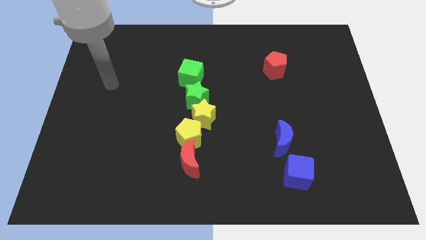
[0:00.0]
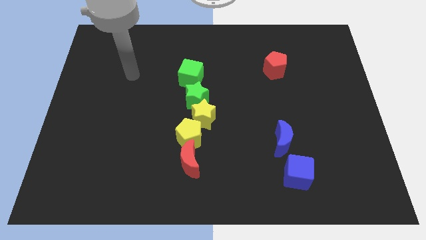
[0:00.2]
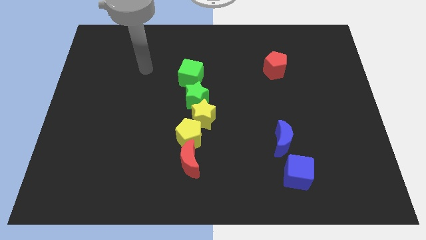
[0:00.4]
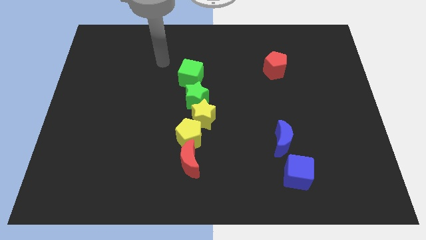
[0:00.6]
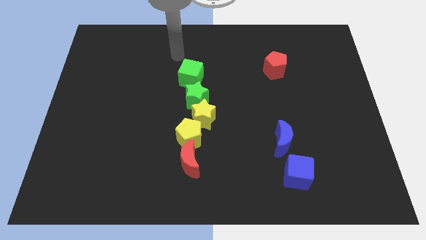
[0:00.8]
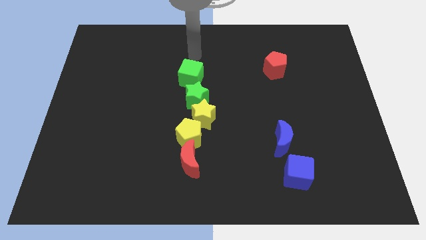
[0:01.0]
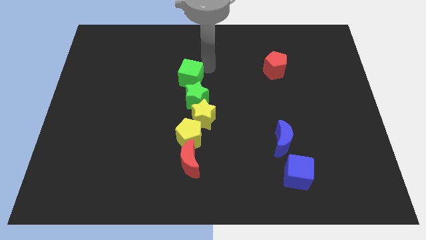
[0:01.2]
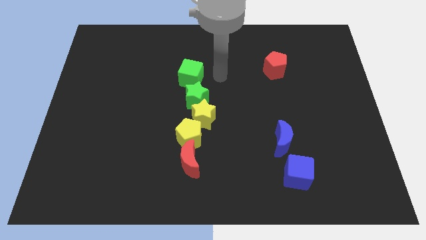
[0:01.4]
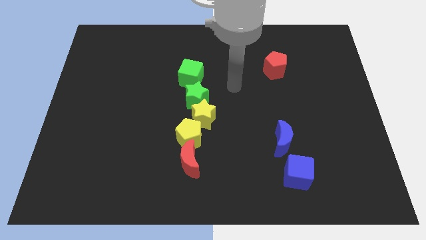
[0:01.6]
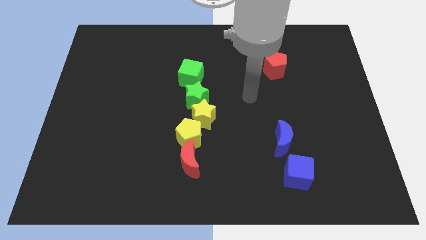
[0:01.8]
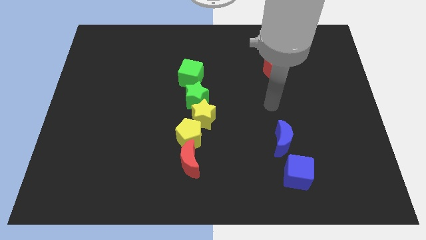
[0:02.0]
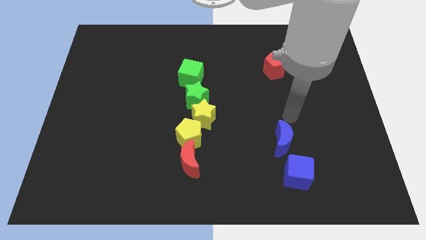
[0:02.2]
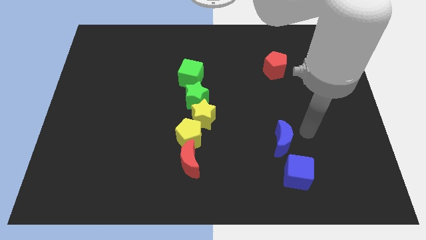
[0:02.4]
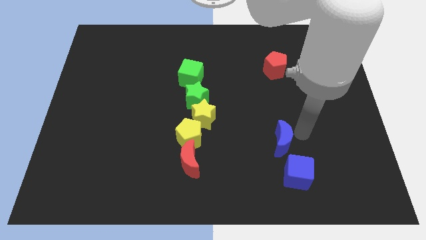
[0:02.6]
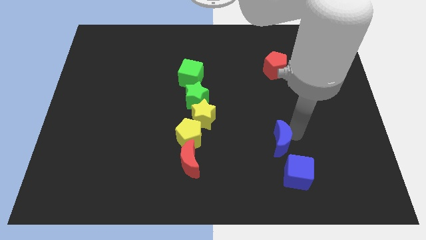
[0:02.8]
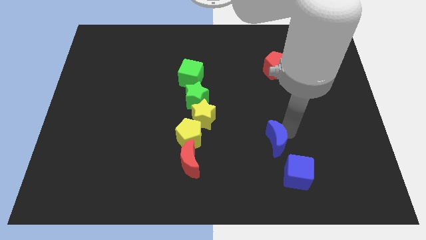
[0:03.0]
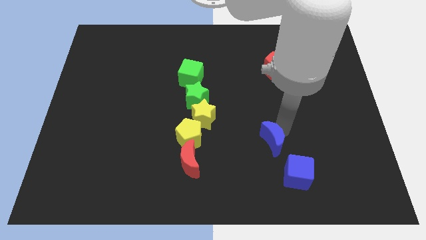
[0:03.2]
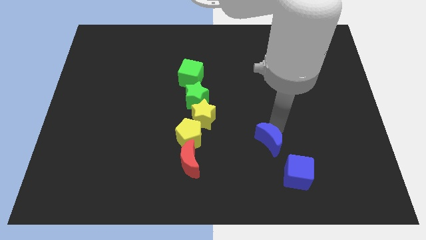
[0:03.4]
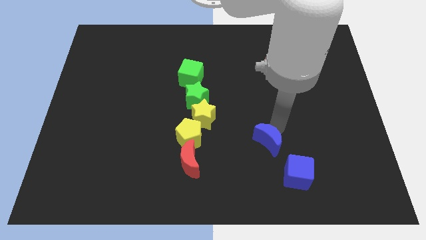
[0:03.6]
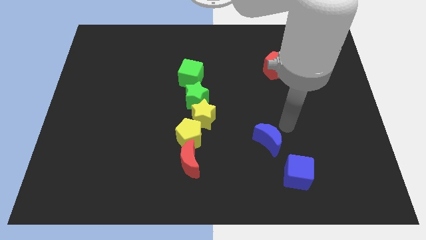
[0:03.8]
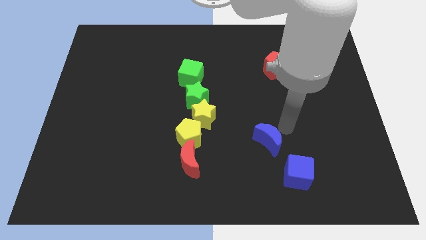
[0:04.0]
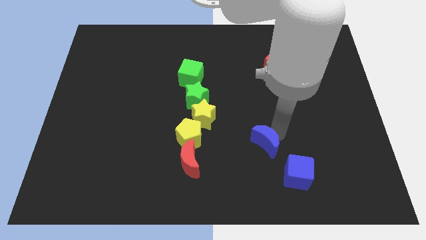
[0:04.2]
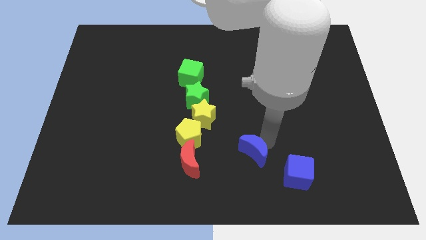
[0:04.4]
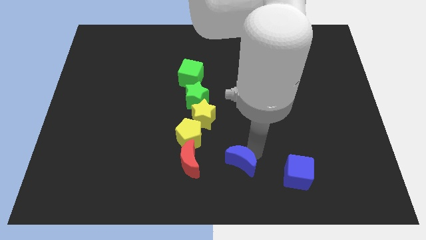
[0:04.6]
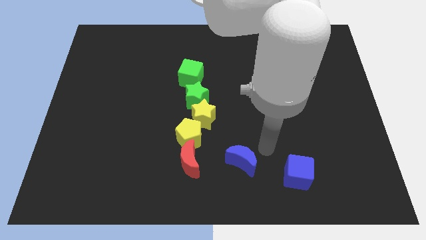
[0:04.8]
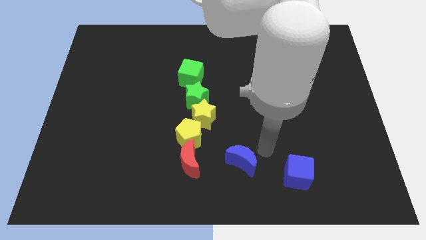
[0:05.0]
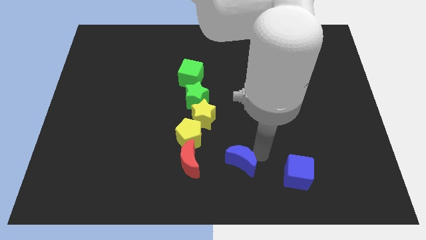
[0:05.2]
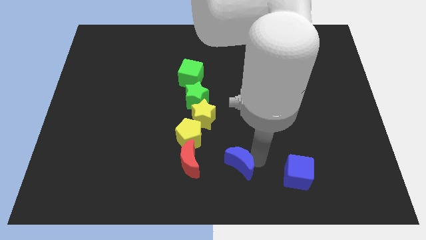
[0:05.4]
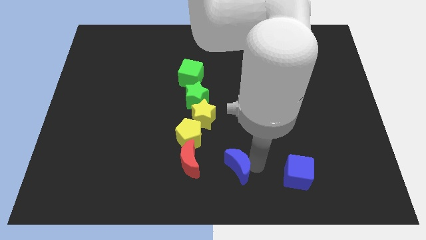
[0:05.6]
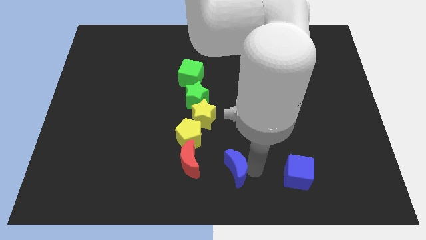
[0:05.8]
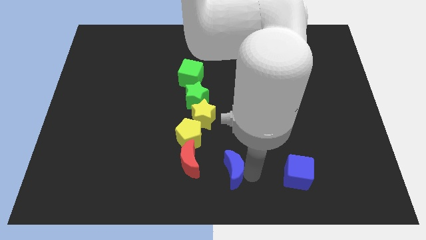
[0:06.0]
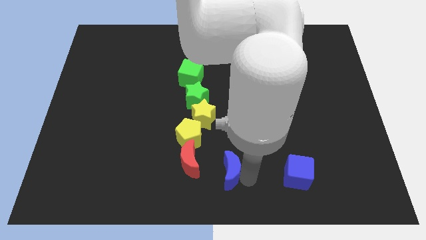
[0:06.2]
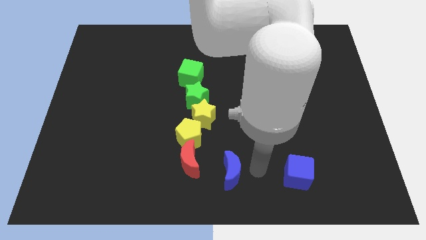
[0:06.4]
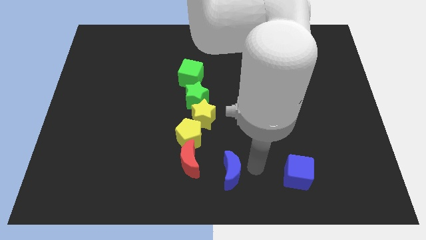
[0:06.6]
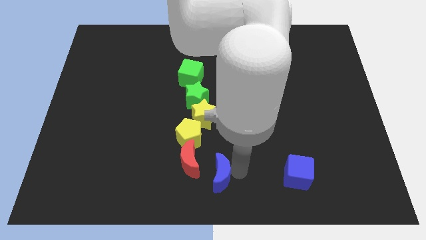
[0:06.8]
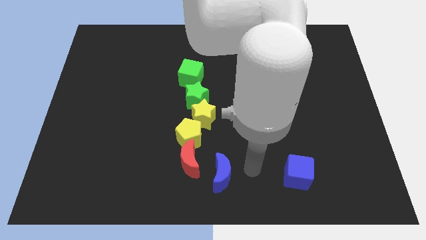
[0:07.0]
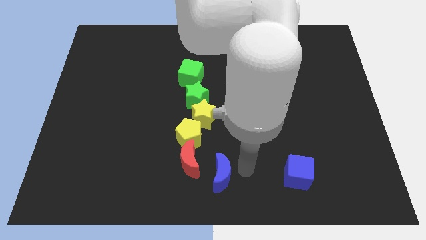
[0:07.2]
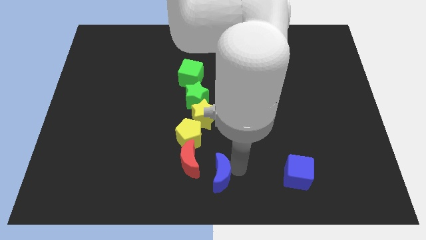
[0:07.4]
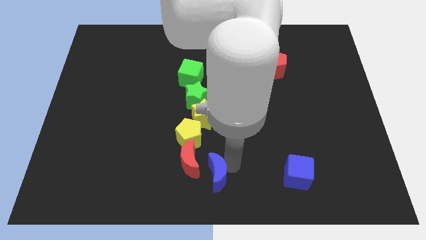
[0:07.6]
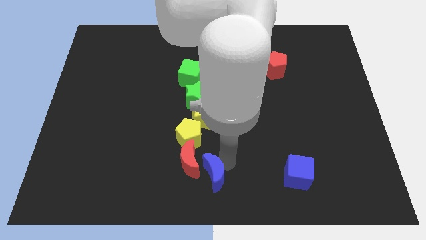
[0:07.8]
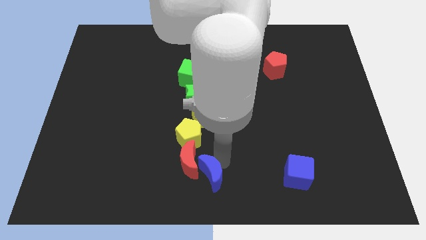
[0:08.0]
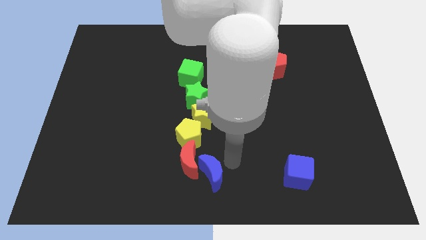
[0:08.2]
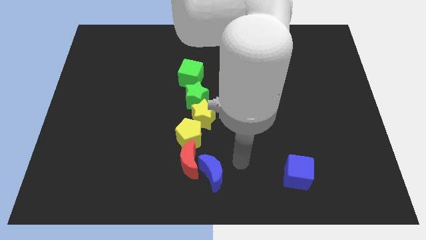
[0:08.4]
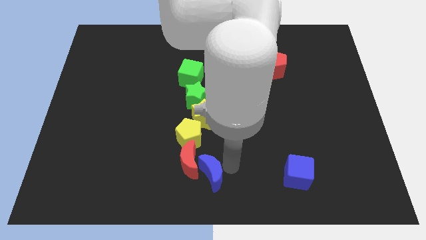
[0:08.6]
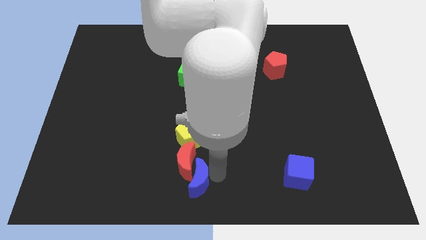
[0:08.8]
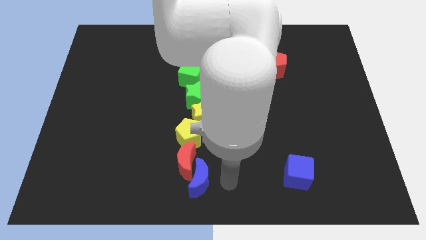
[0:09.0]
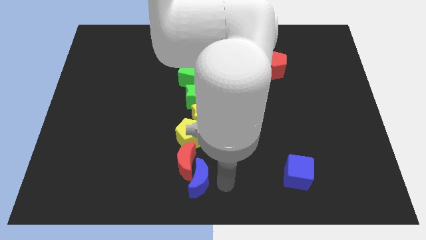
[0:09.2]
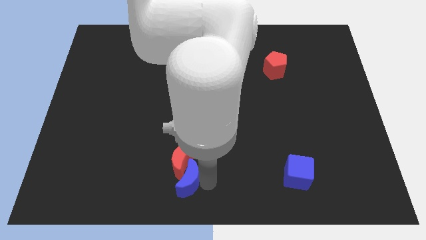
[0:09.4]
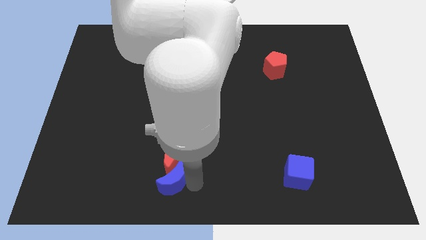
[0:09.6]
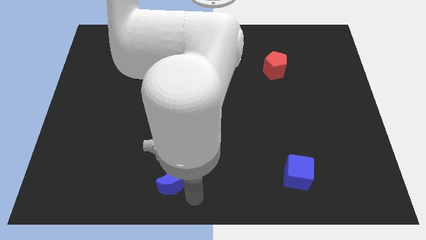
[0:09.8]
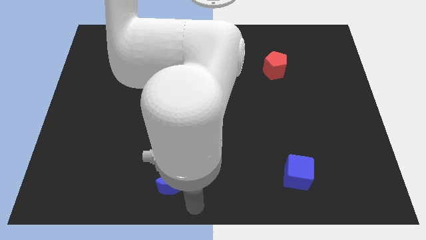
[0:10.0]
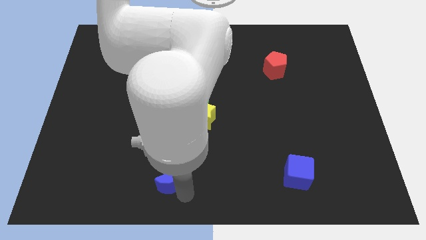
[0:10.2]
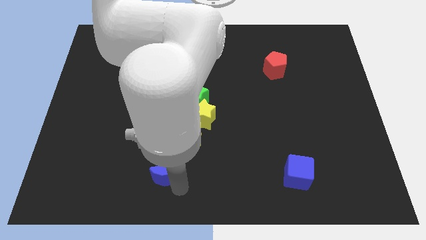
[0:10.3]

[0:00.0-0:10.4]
slide the blue moon left

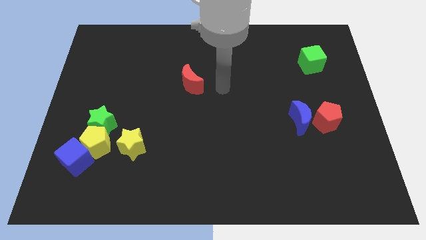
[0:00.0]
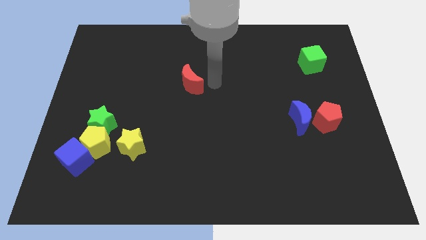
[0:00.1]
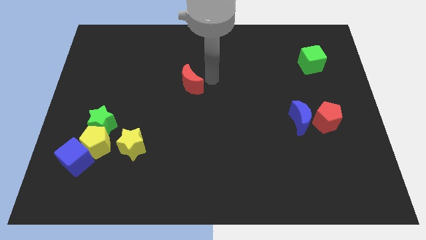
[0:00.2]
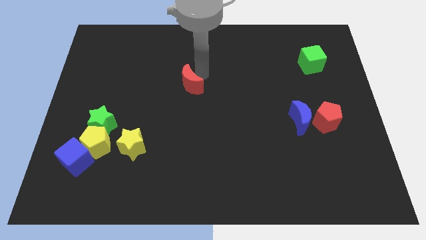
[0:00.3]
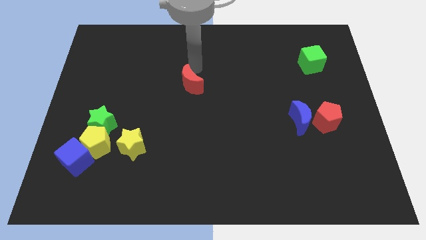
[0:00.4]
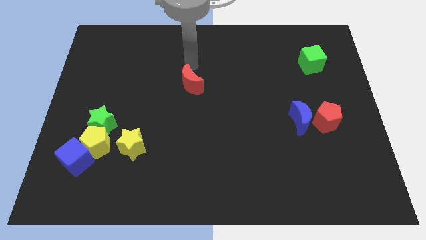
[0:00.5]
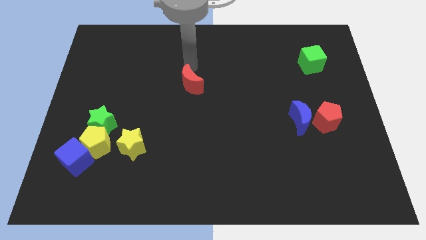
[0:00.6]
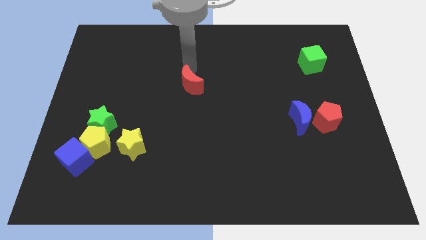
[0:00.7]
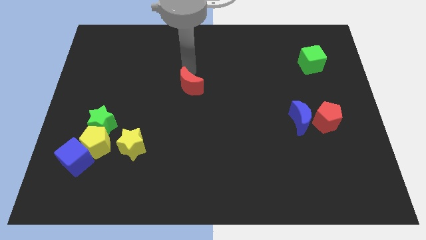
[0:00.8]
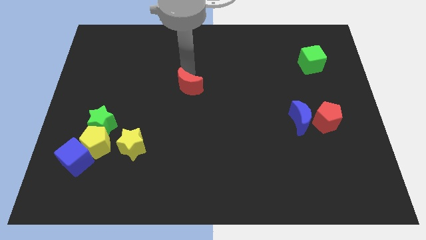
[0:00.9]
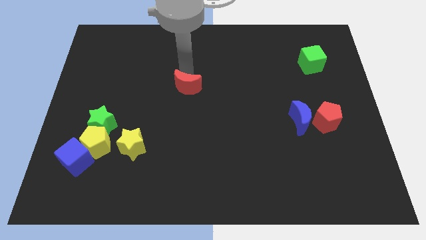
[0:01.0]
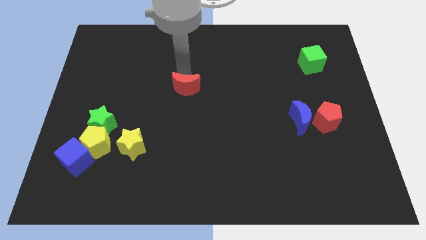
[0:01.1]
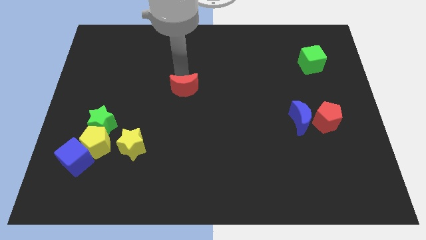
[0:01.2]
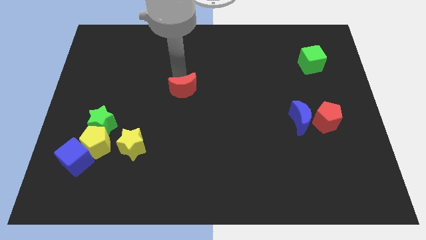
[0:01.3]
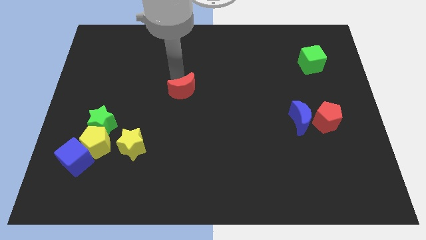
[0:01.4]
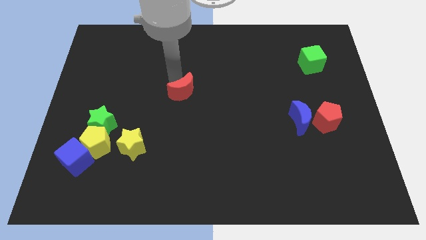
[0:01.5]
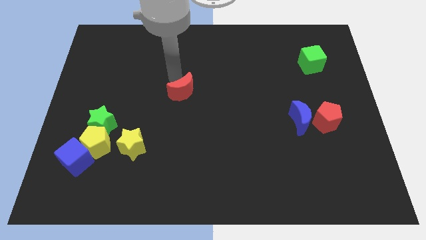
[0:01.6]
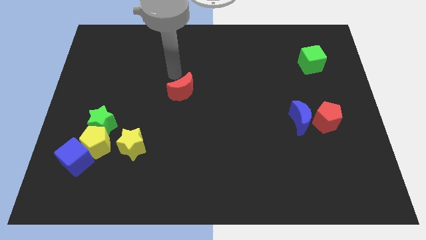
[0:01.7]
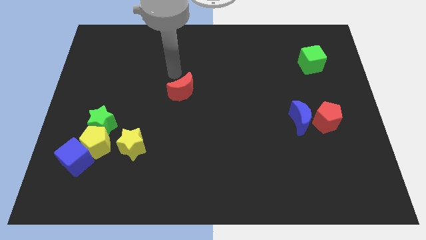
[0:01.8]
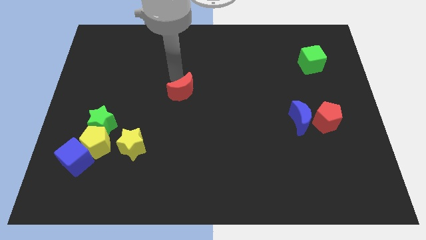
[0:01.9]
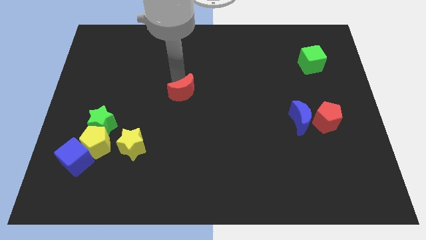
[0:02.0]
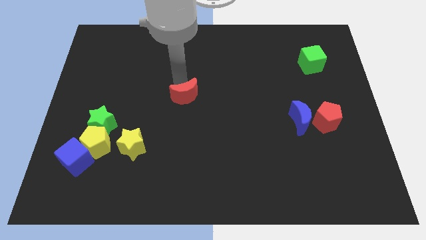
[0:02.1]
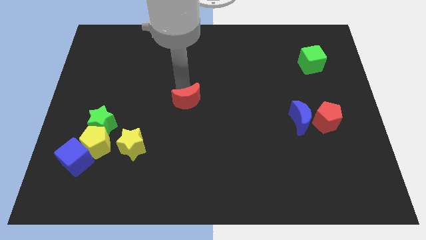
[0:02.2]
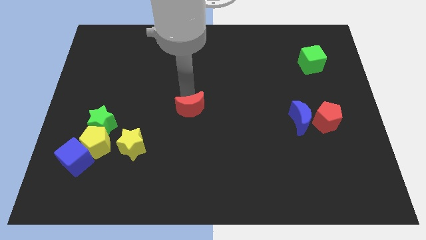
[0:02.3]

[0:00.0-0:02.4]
slightly push the red moon down

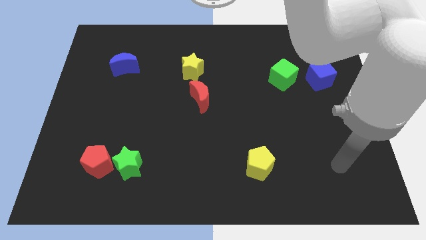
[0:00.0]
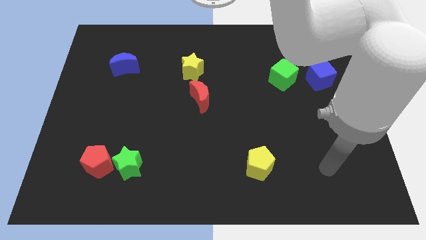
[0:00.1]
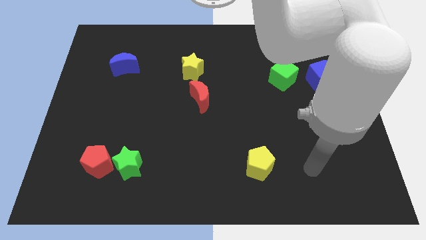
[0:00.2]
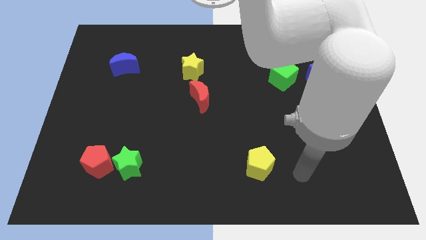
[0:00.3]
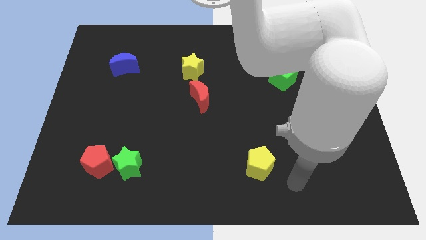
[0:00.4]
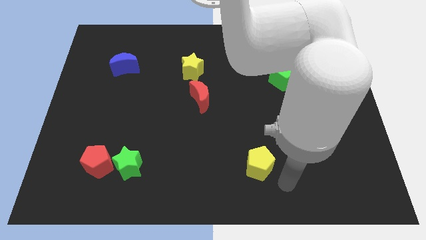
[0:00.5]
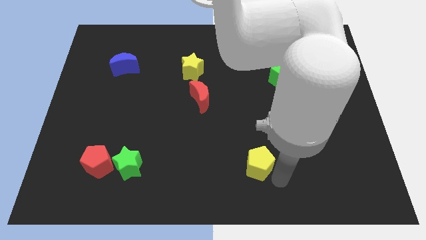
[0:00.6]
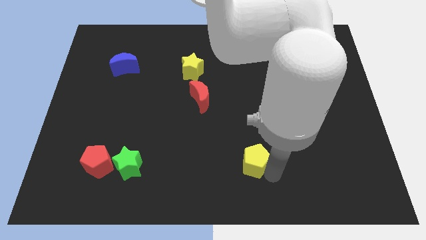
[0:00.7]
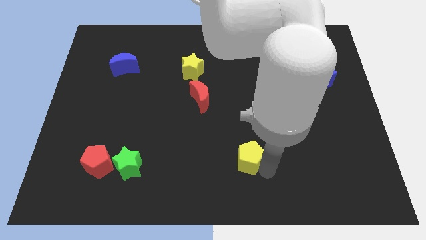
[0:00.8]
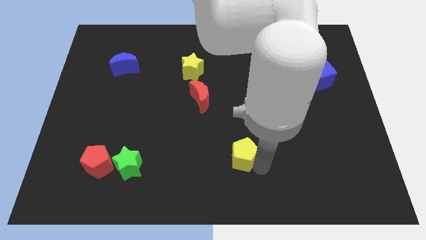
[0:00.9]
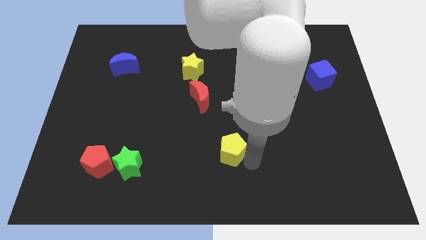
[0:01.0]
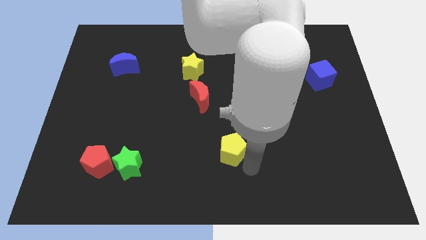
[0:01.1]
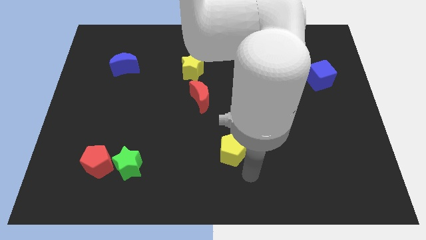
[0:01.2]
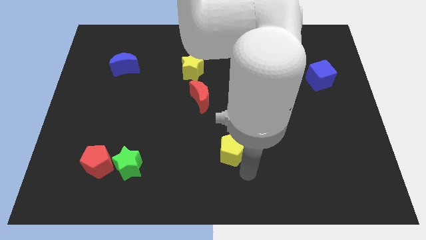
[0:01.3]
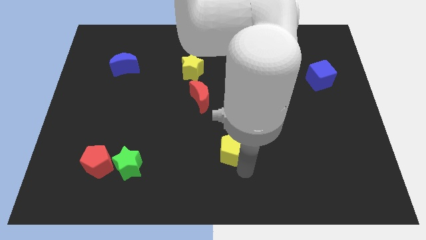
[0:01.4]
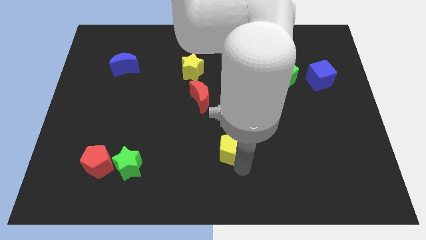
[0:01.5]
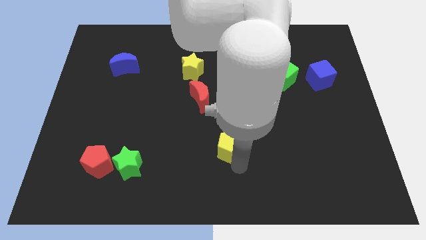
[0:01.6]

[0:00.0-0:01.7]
slightly move the yellow pentagon diagonally up and left
